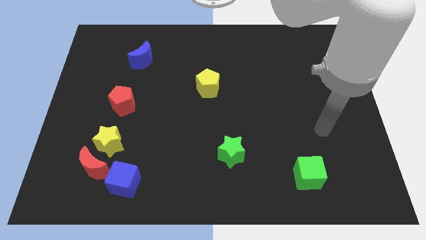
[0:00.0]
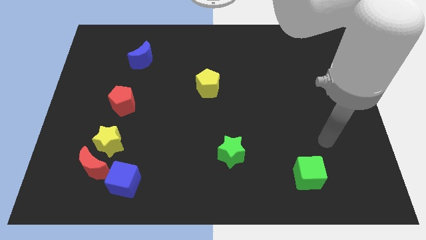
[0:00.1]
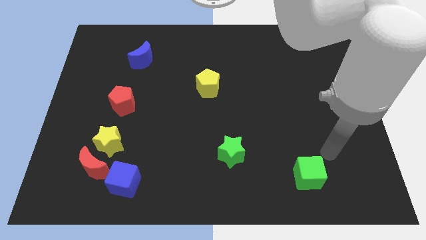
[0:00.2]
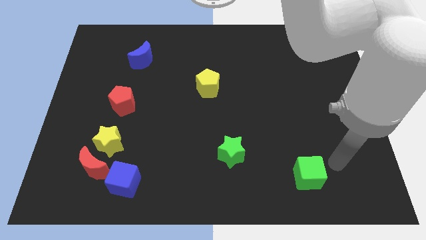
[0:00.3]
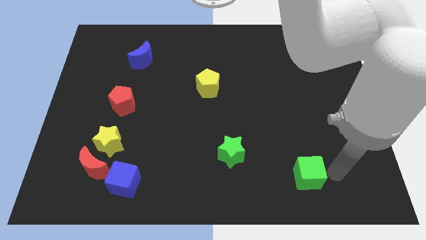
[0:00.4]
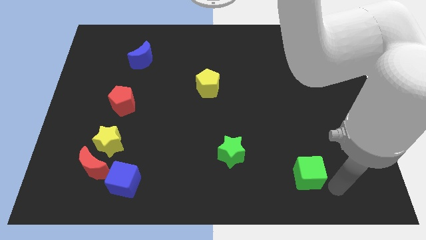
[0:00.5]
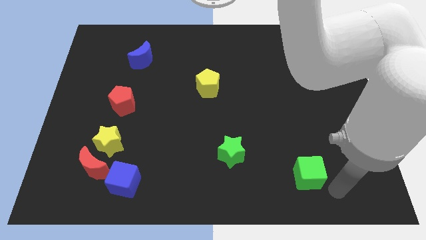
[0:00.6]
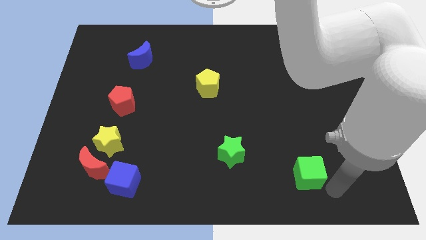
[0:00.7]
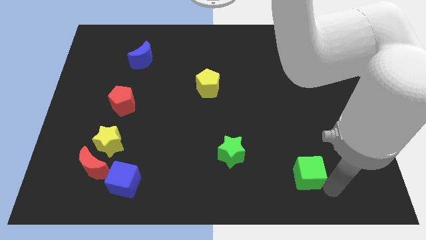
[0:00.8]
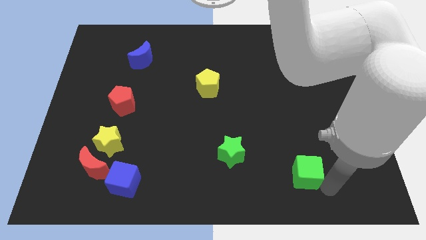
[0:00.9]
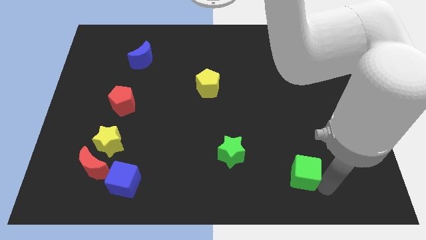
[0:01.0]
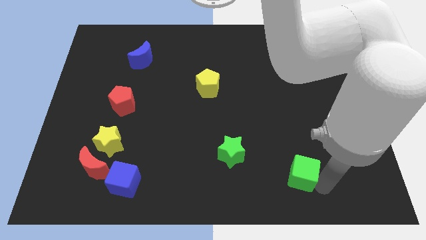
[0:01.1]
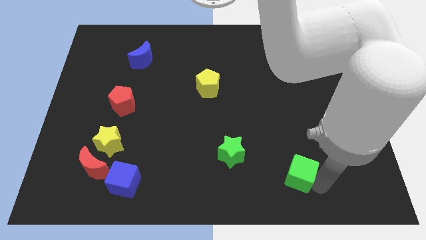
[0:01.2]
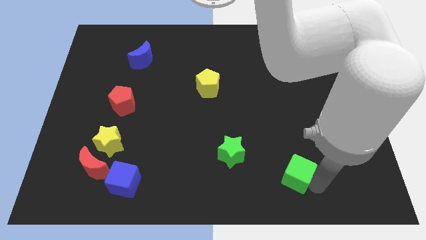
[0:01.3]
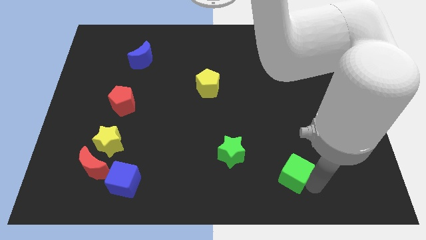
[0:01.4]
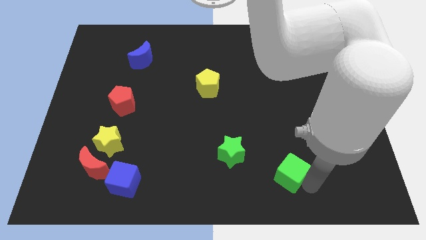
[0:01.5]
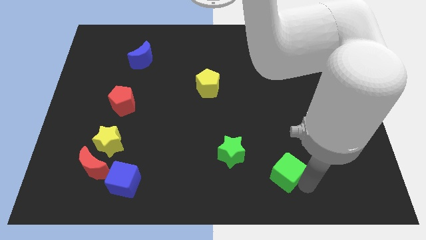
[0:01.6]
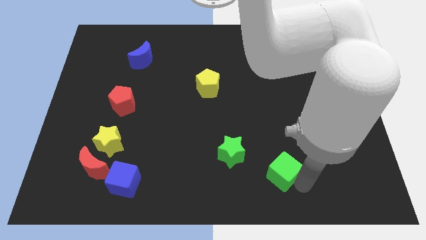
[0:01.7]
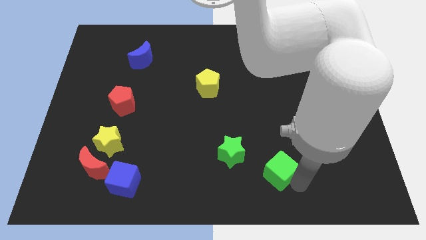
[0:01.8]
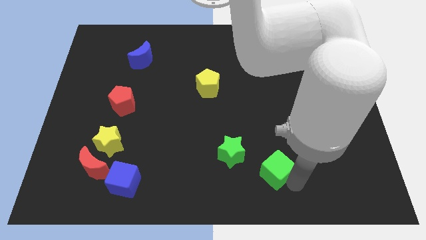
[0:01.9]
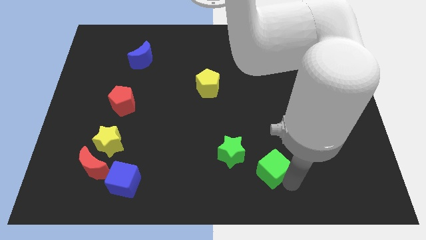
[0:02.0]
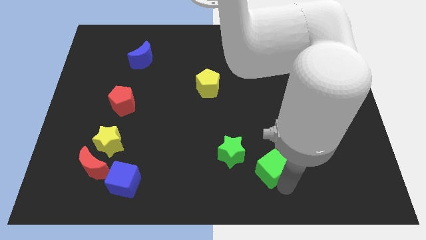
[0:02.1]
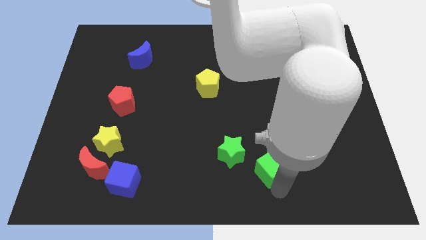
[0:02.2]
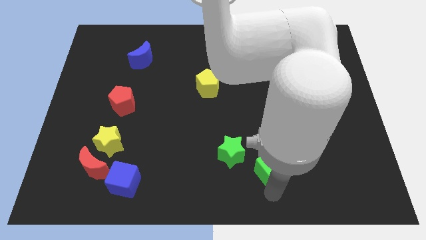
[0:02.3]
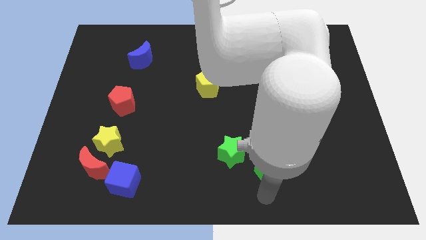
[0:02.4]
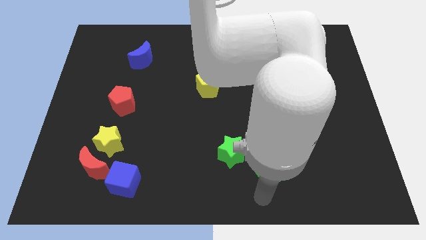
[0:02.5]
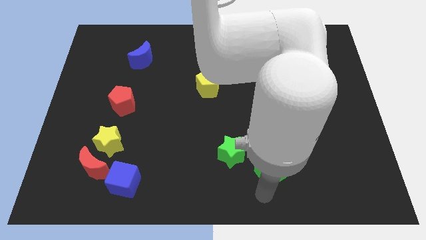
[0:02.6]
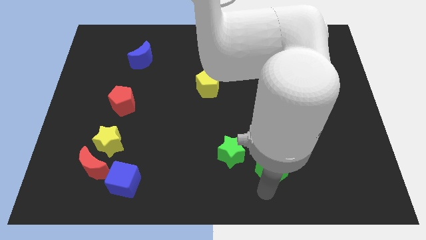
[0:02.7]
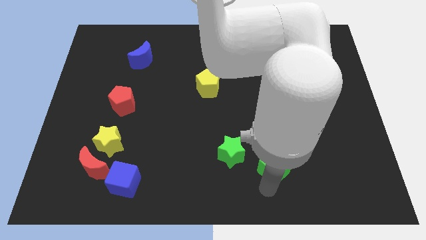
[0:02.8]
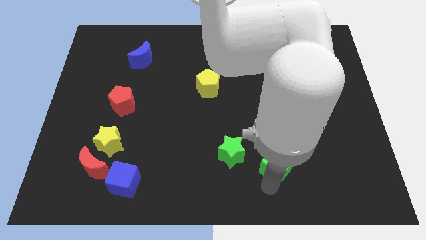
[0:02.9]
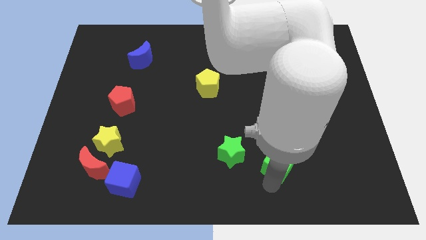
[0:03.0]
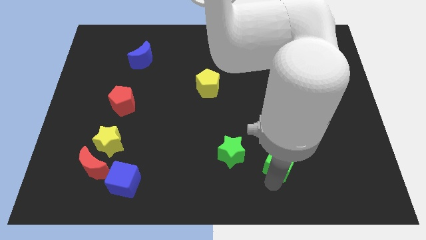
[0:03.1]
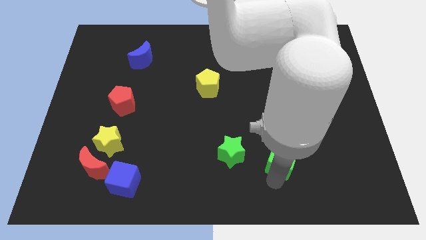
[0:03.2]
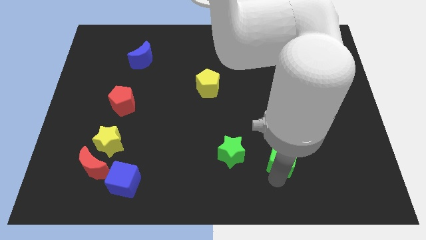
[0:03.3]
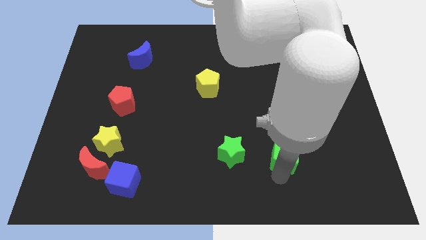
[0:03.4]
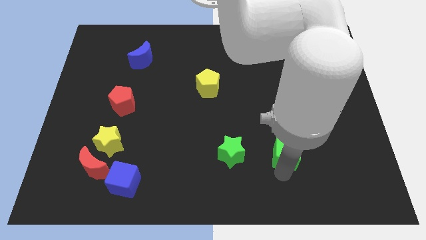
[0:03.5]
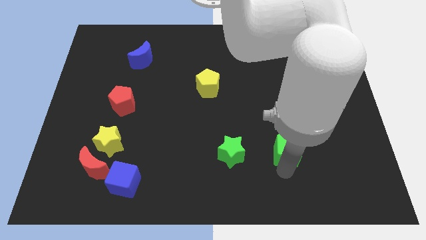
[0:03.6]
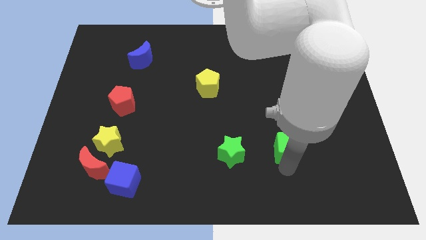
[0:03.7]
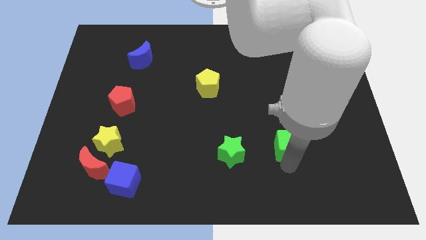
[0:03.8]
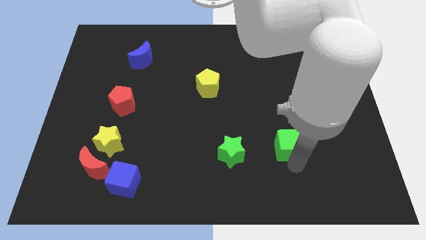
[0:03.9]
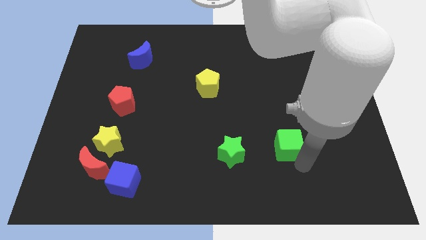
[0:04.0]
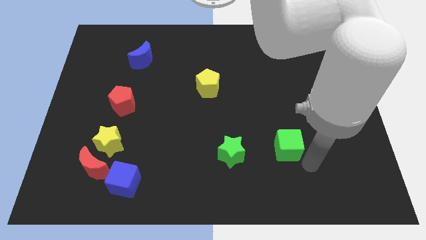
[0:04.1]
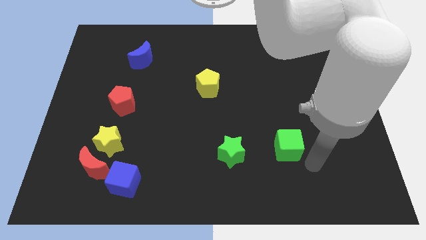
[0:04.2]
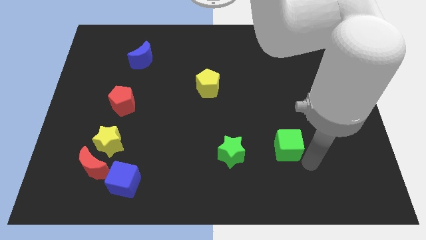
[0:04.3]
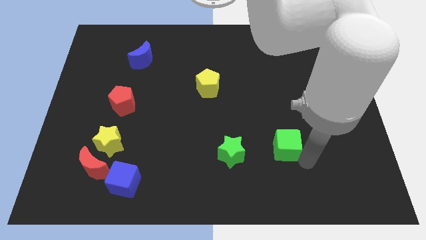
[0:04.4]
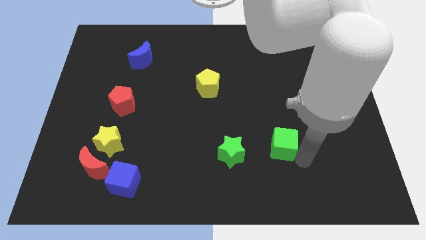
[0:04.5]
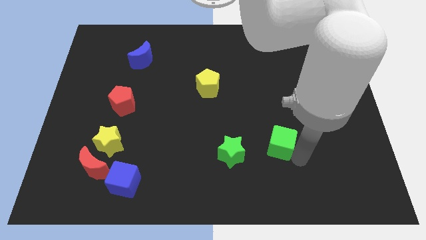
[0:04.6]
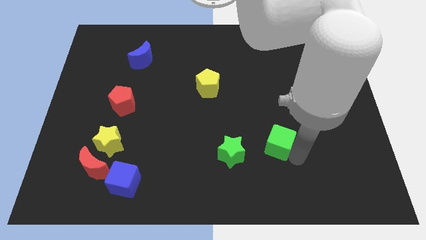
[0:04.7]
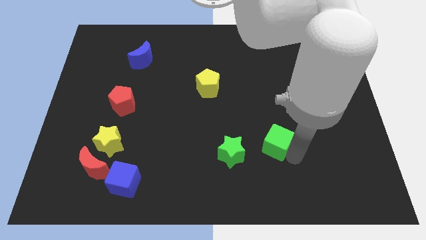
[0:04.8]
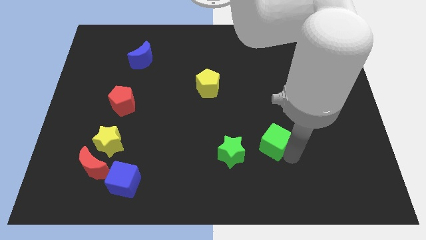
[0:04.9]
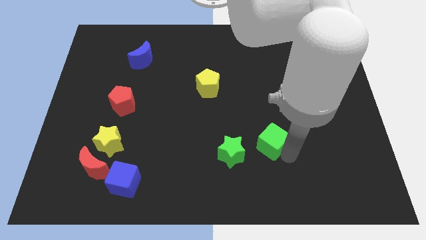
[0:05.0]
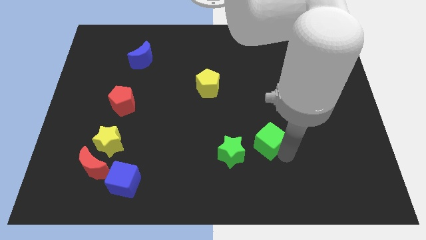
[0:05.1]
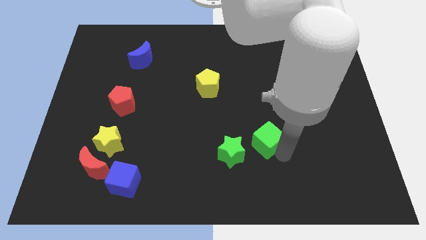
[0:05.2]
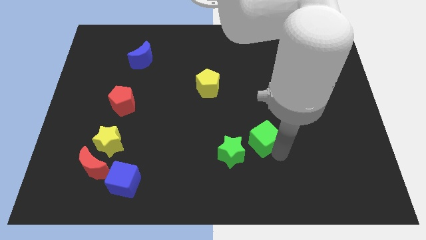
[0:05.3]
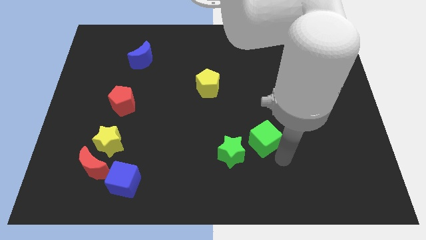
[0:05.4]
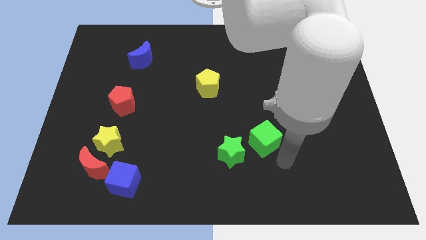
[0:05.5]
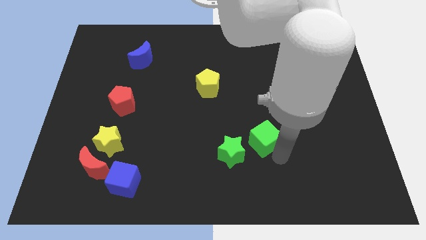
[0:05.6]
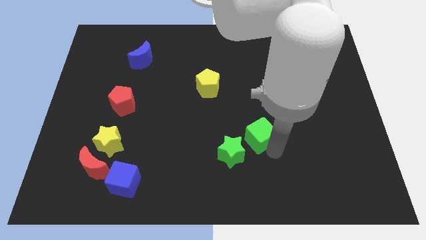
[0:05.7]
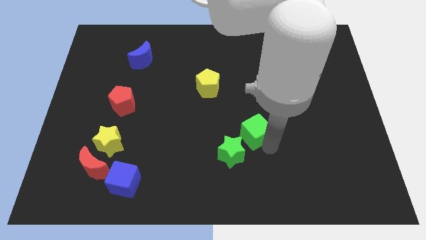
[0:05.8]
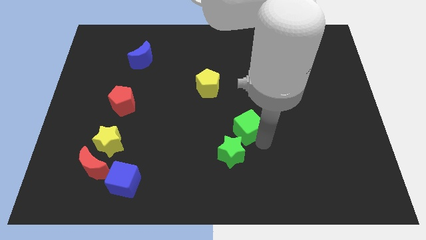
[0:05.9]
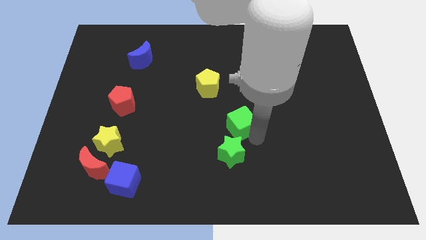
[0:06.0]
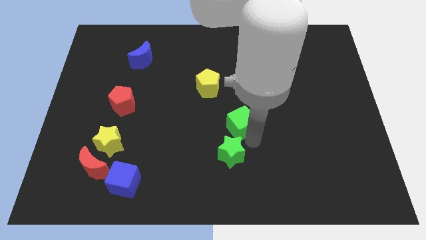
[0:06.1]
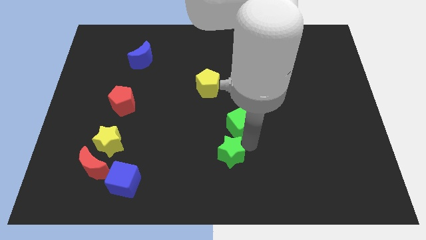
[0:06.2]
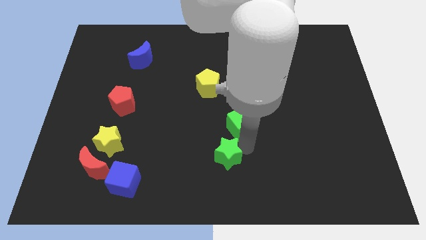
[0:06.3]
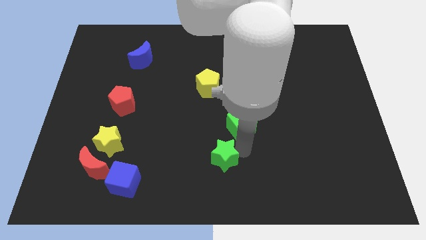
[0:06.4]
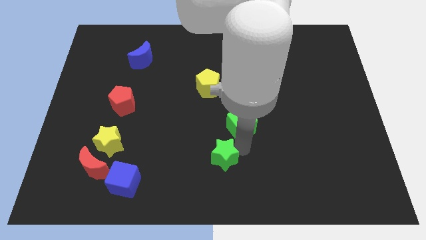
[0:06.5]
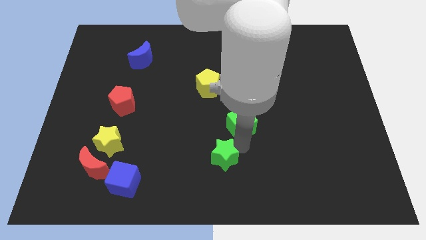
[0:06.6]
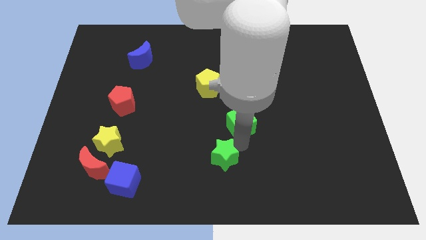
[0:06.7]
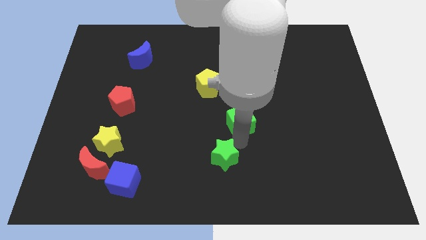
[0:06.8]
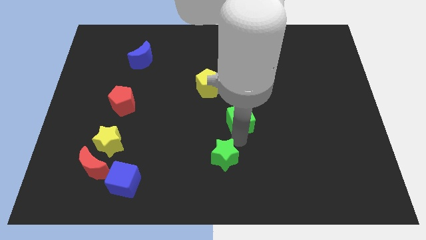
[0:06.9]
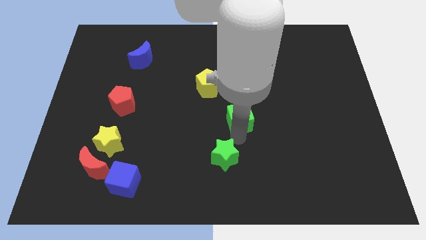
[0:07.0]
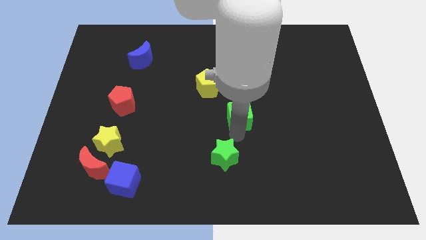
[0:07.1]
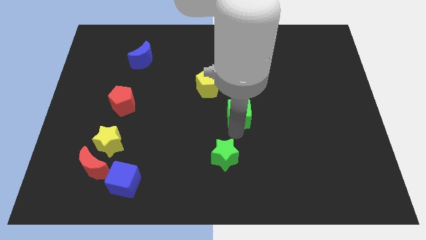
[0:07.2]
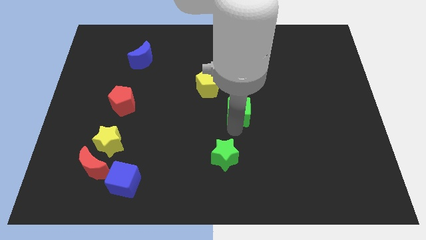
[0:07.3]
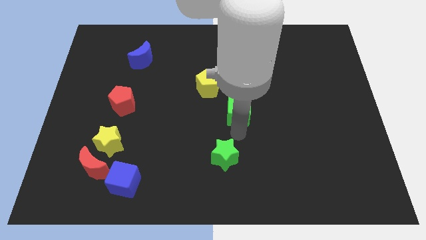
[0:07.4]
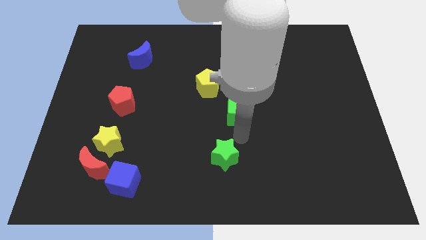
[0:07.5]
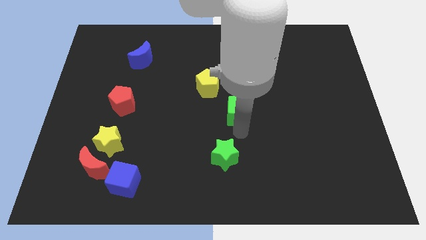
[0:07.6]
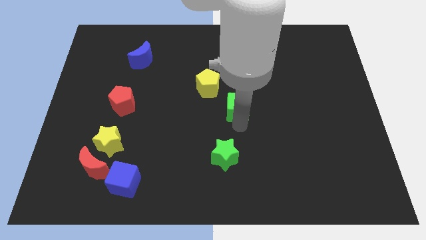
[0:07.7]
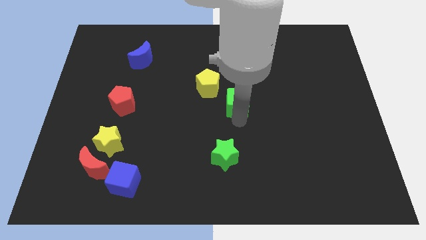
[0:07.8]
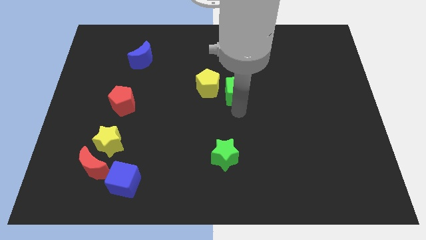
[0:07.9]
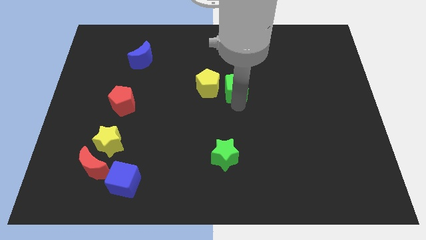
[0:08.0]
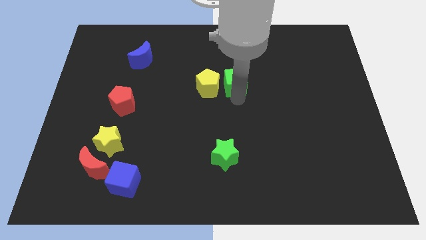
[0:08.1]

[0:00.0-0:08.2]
move the green cube to the top right of the yellow pentagon
